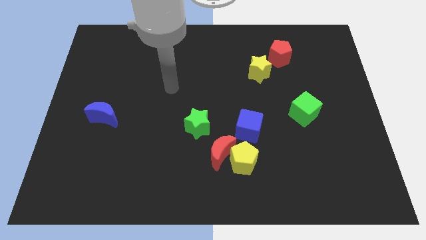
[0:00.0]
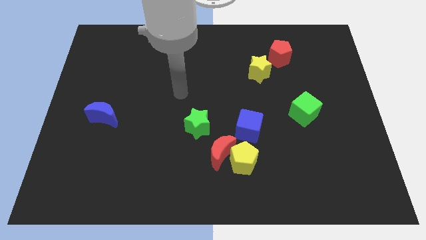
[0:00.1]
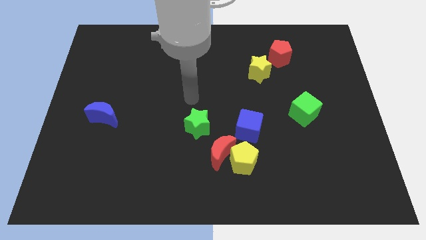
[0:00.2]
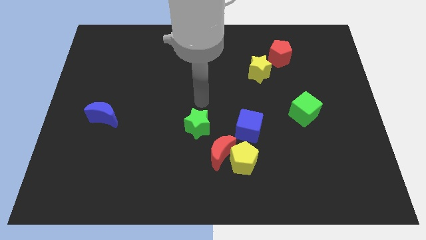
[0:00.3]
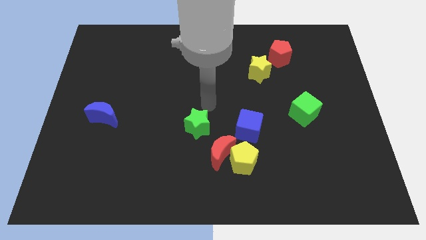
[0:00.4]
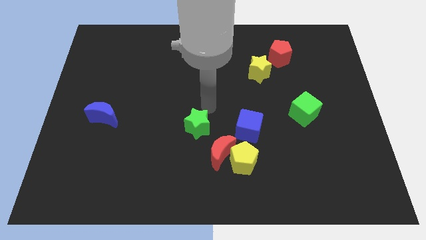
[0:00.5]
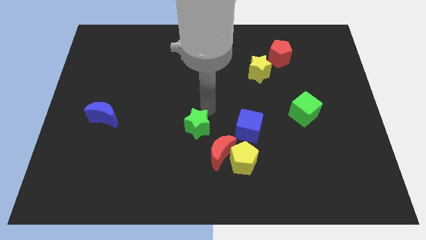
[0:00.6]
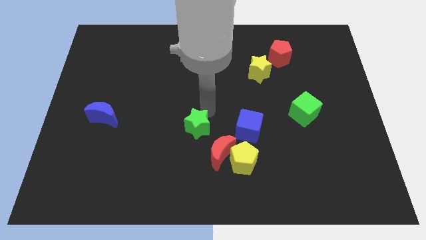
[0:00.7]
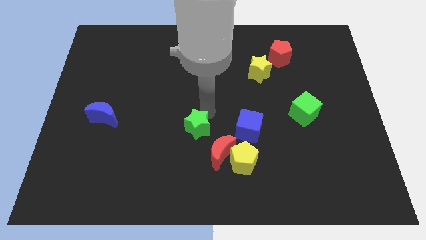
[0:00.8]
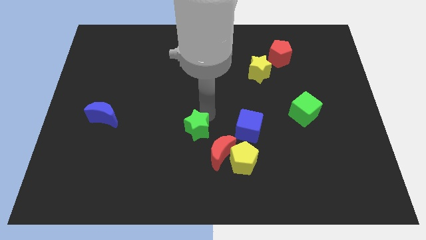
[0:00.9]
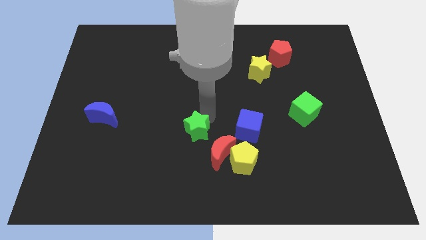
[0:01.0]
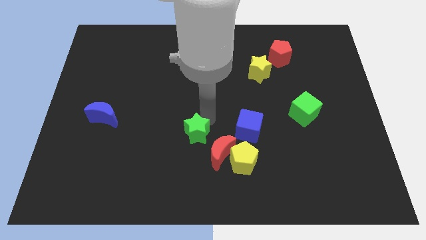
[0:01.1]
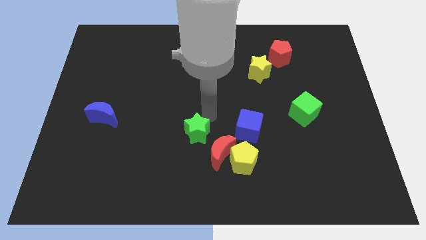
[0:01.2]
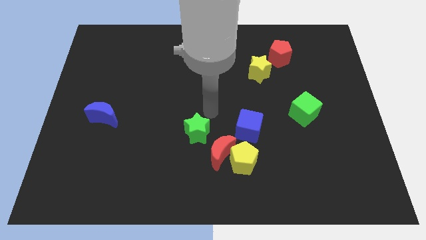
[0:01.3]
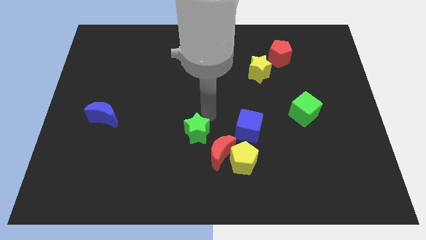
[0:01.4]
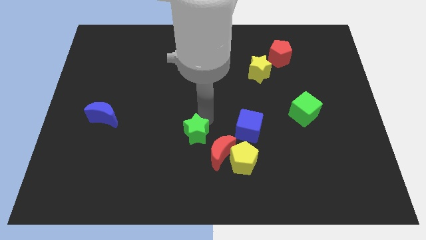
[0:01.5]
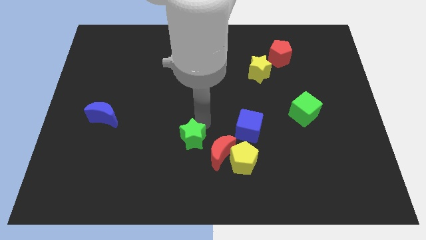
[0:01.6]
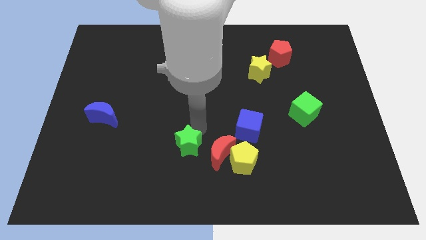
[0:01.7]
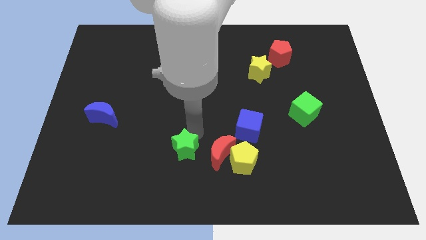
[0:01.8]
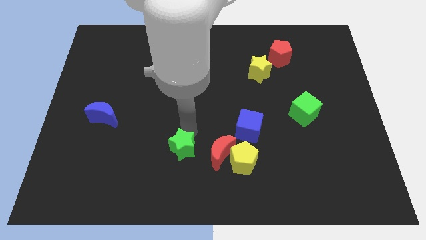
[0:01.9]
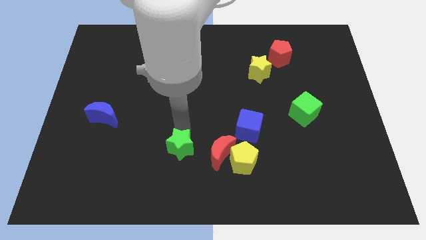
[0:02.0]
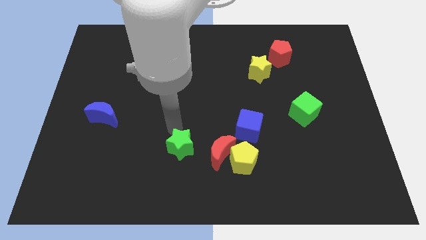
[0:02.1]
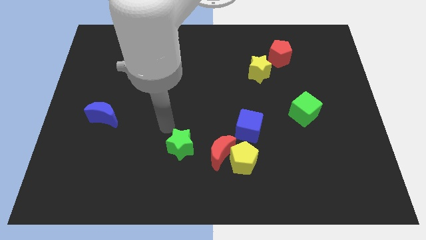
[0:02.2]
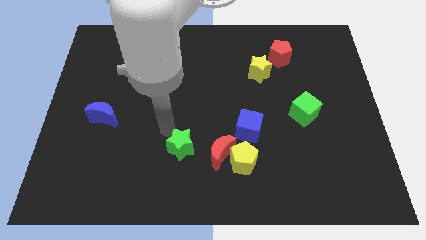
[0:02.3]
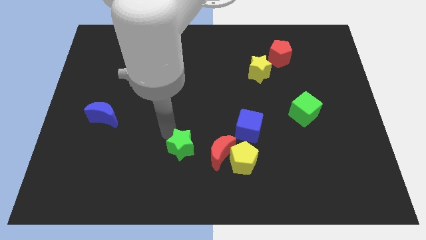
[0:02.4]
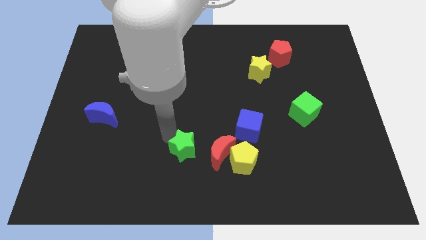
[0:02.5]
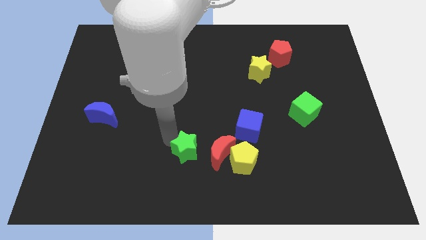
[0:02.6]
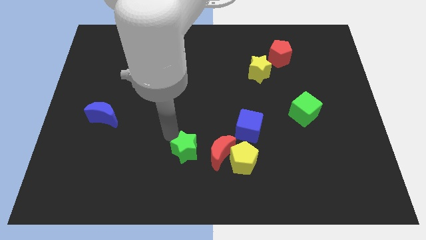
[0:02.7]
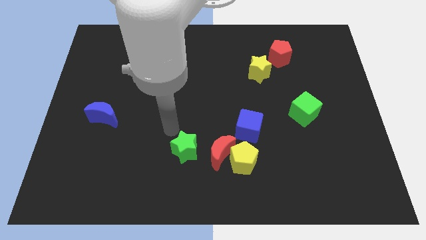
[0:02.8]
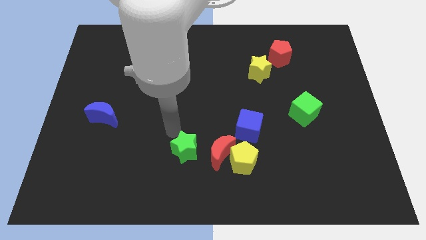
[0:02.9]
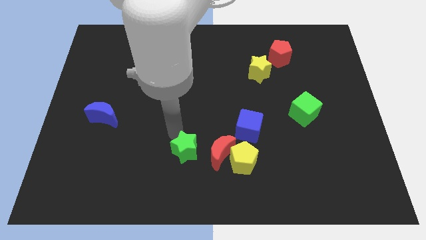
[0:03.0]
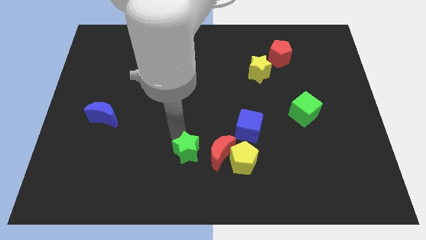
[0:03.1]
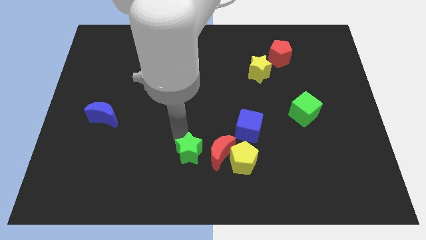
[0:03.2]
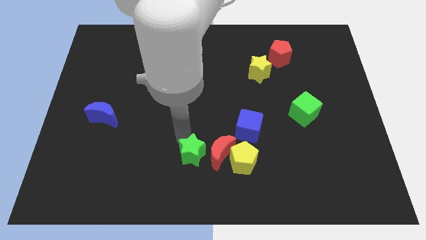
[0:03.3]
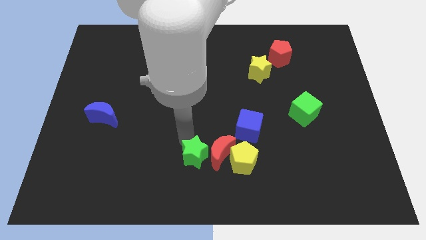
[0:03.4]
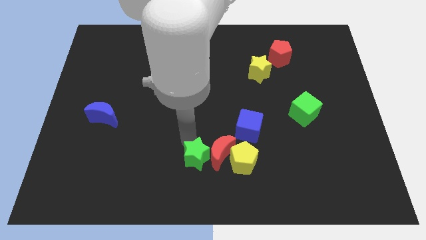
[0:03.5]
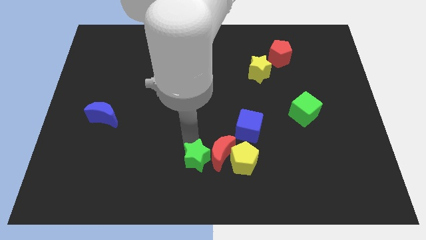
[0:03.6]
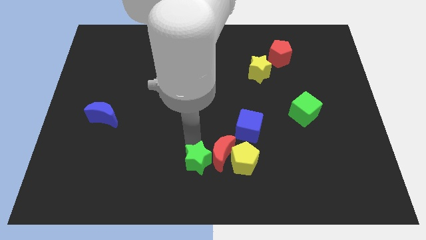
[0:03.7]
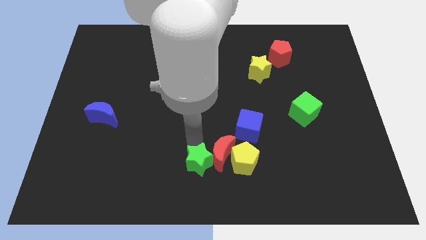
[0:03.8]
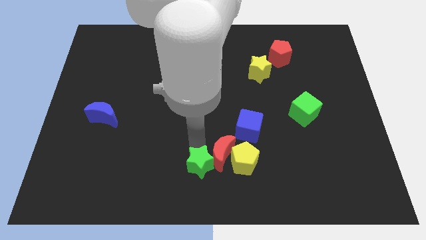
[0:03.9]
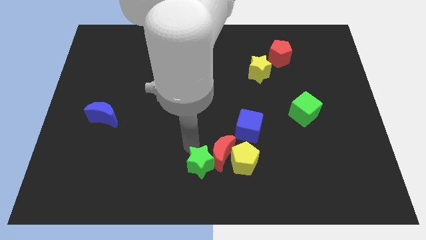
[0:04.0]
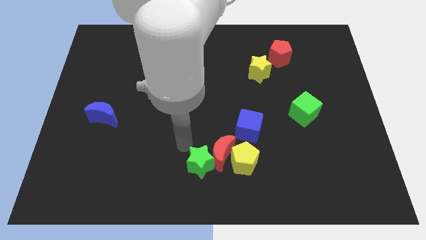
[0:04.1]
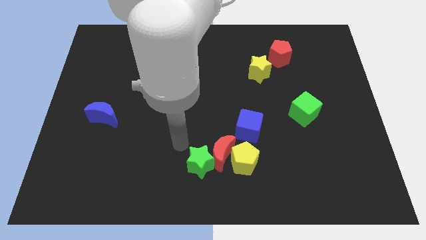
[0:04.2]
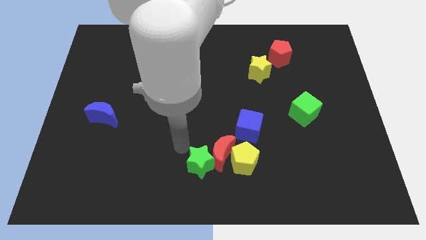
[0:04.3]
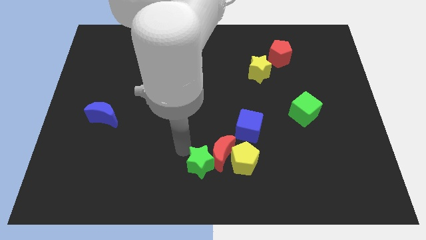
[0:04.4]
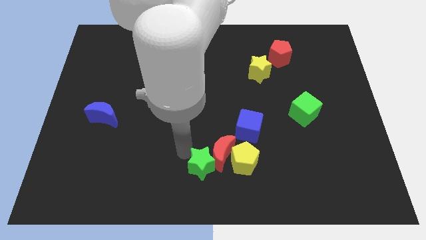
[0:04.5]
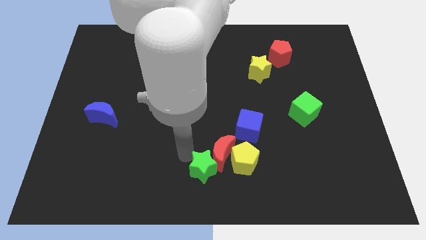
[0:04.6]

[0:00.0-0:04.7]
slide the green star diagonally down and to the left of the yellow pentagon

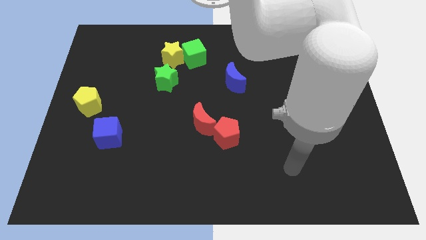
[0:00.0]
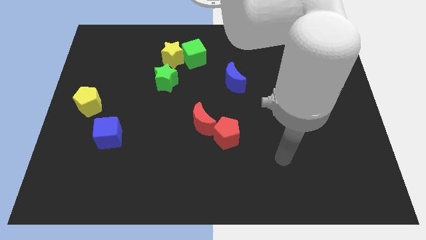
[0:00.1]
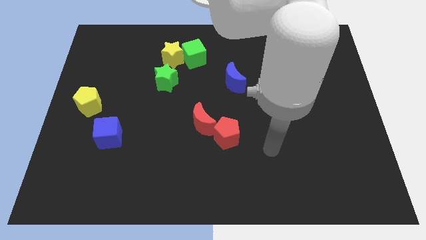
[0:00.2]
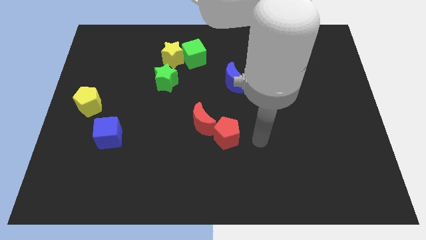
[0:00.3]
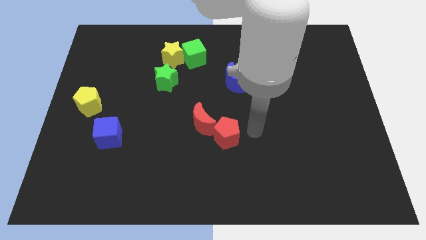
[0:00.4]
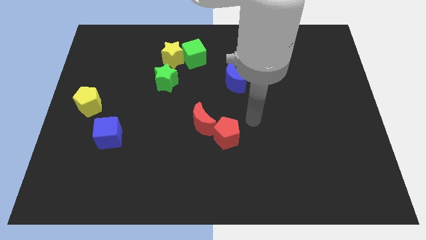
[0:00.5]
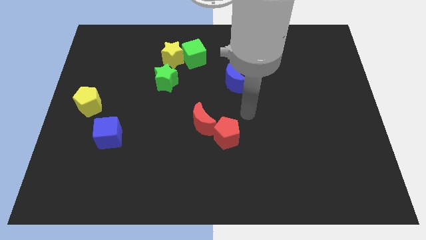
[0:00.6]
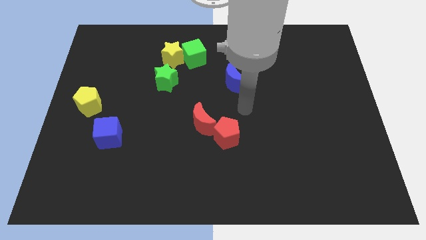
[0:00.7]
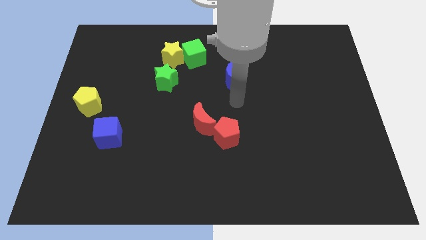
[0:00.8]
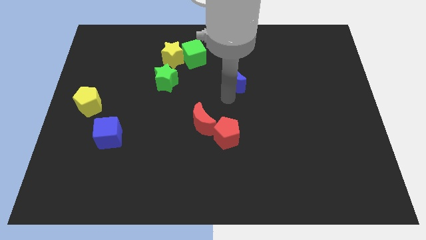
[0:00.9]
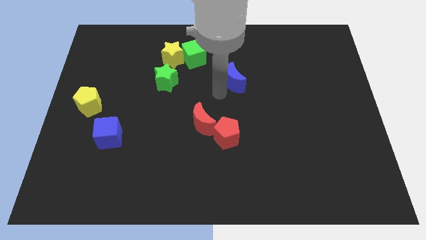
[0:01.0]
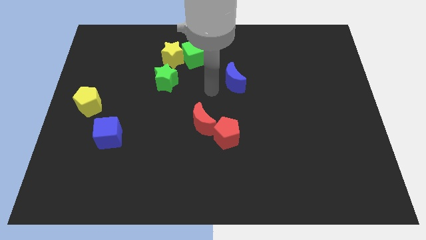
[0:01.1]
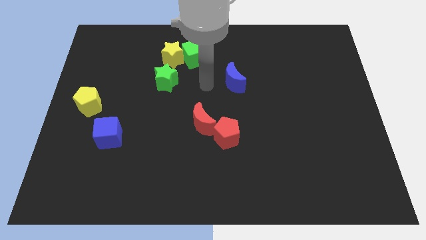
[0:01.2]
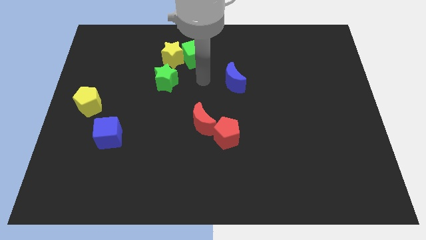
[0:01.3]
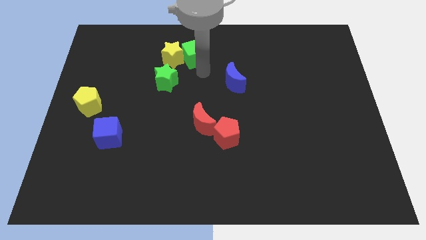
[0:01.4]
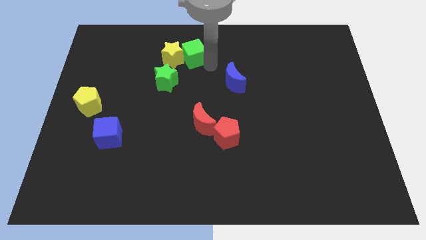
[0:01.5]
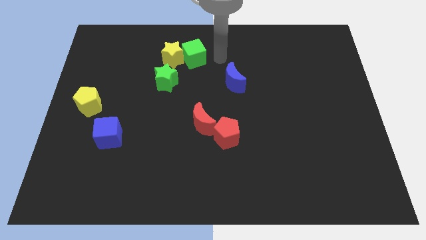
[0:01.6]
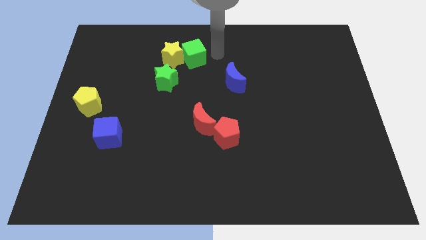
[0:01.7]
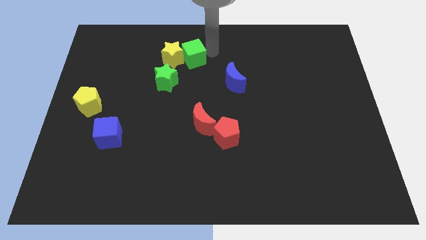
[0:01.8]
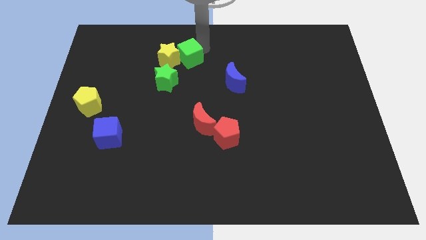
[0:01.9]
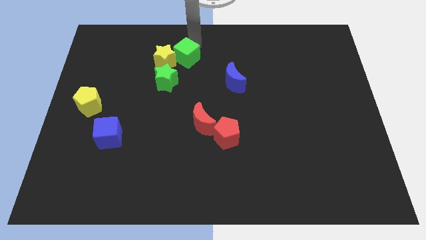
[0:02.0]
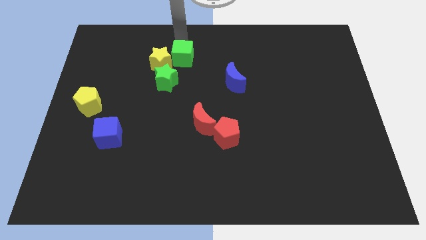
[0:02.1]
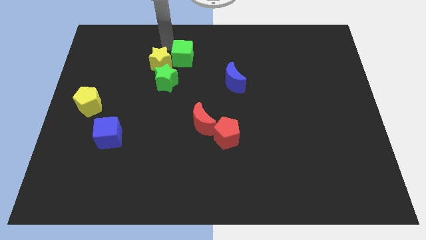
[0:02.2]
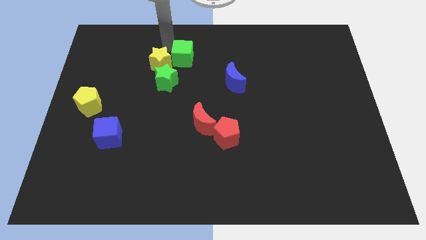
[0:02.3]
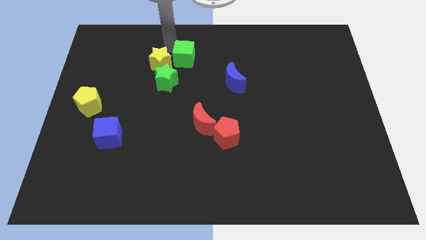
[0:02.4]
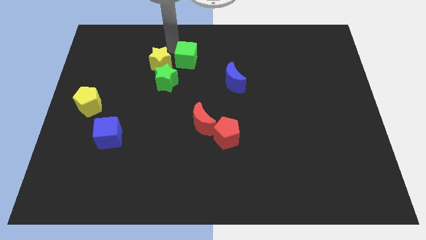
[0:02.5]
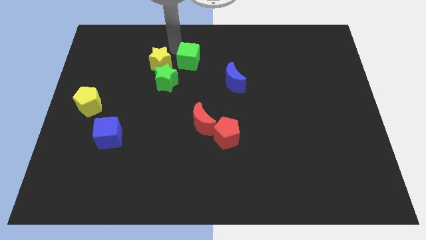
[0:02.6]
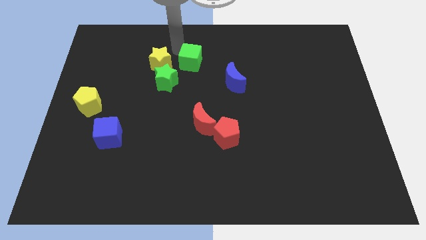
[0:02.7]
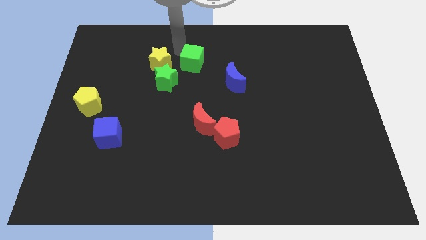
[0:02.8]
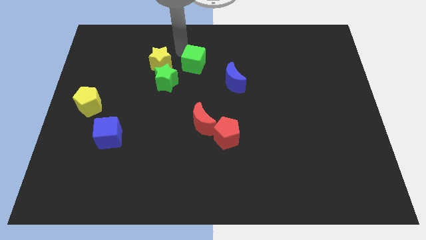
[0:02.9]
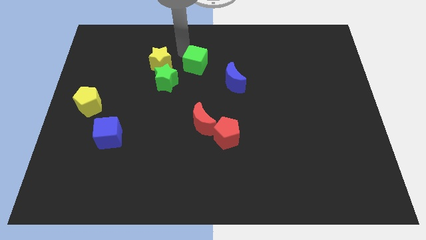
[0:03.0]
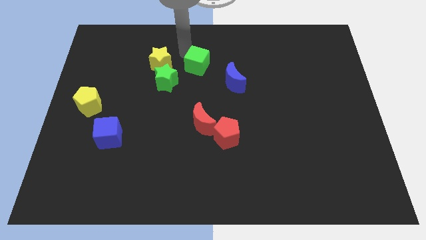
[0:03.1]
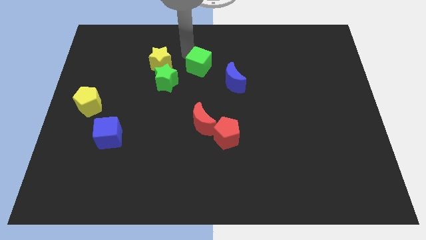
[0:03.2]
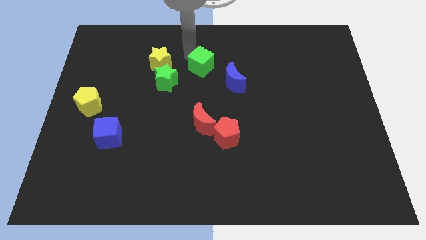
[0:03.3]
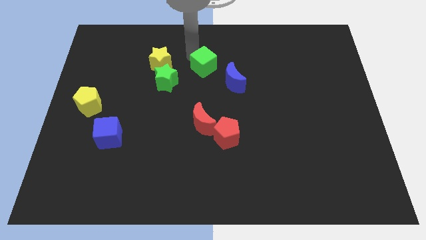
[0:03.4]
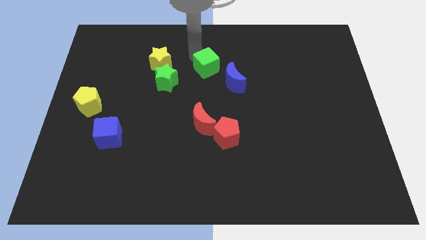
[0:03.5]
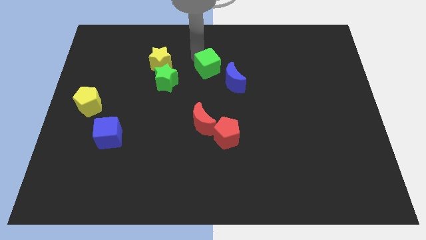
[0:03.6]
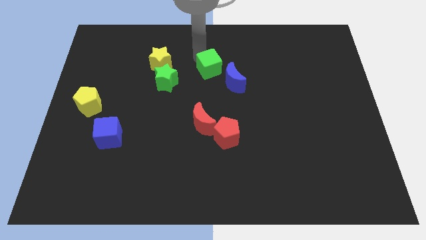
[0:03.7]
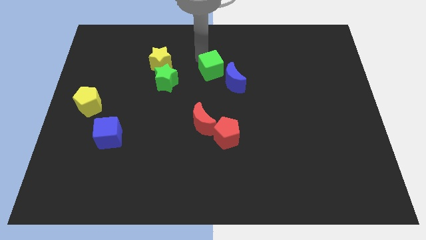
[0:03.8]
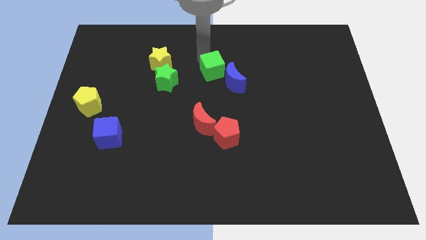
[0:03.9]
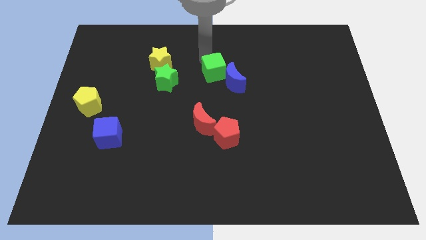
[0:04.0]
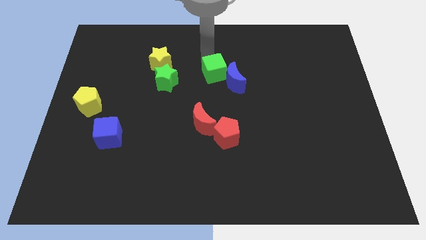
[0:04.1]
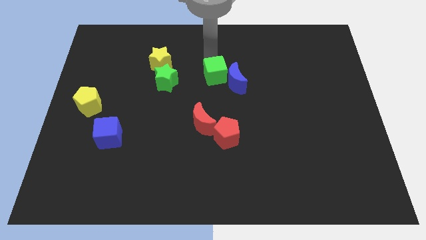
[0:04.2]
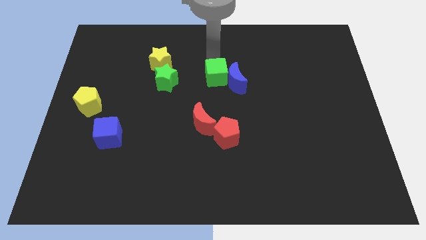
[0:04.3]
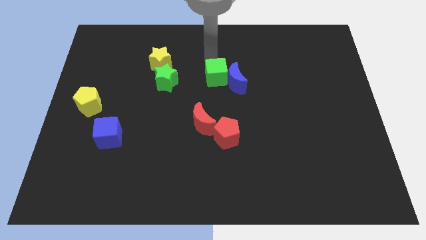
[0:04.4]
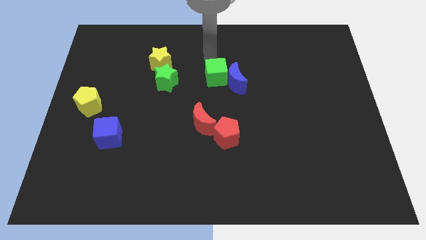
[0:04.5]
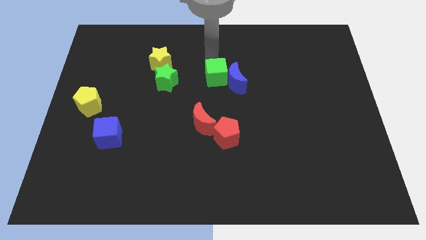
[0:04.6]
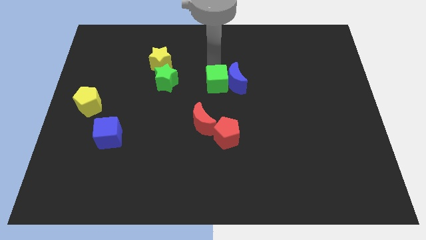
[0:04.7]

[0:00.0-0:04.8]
put the green cube above the red pentagon
